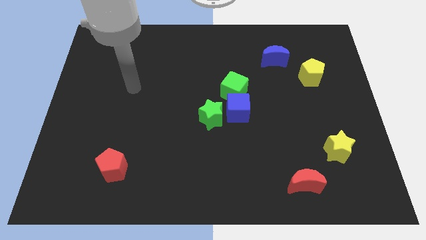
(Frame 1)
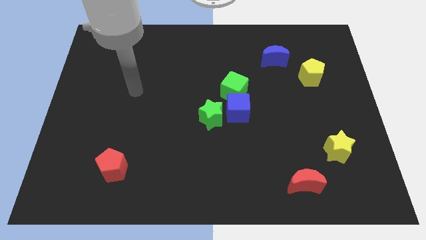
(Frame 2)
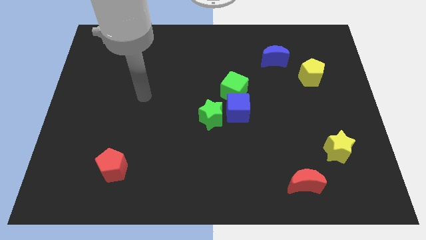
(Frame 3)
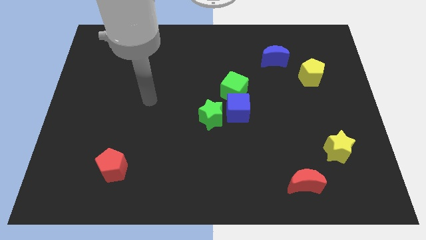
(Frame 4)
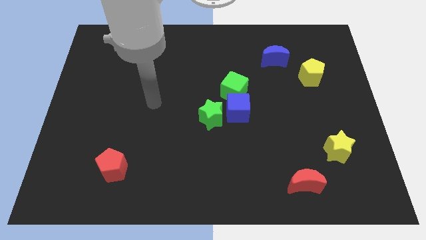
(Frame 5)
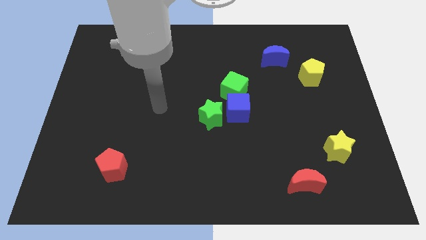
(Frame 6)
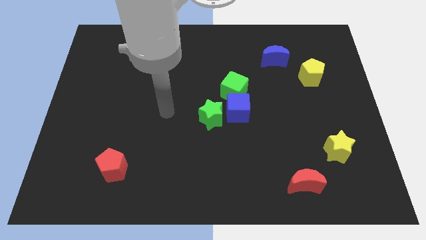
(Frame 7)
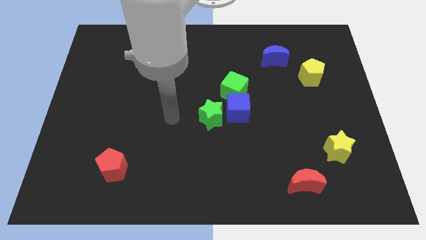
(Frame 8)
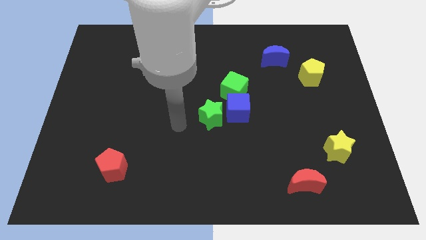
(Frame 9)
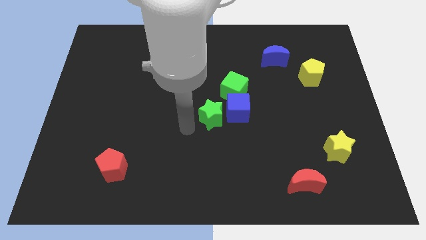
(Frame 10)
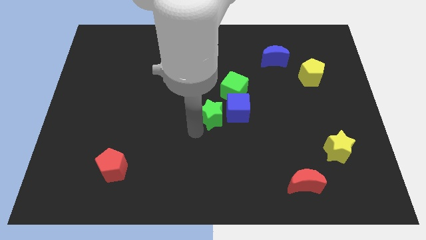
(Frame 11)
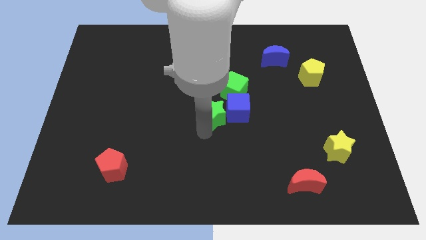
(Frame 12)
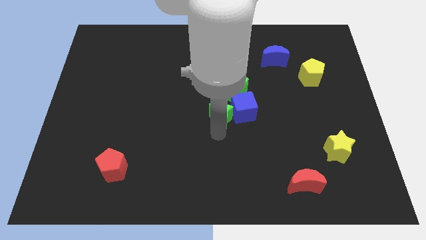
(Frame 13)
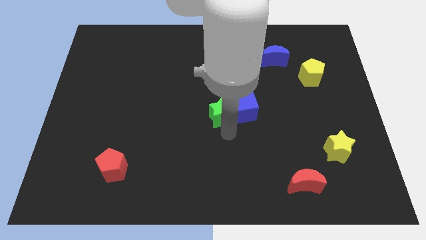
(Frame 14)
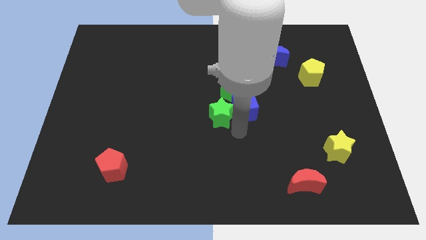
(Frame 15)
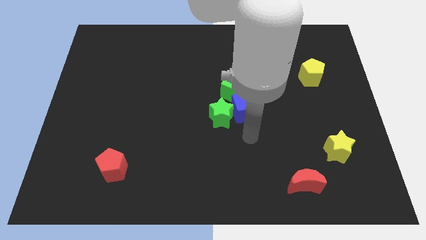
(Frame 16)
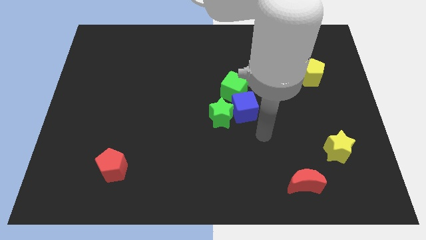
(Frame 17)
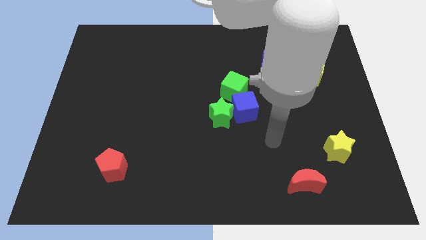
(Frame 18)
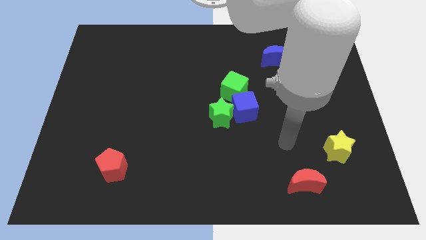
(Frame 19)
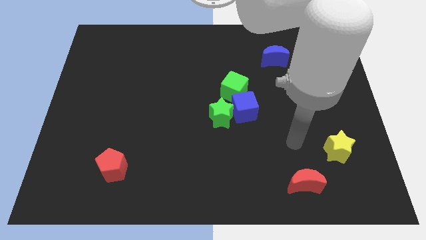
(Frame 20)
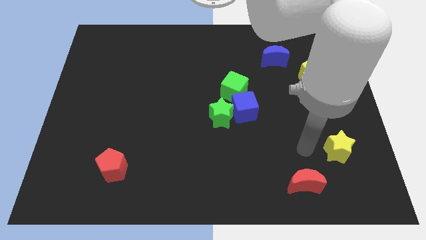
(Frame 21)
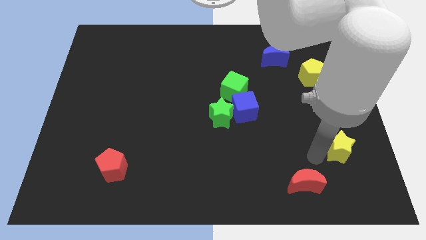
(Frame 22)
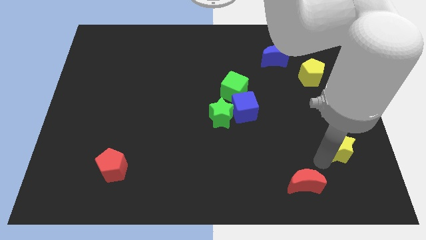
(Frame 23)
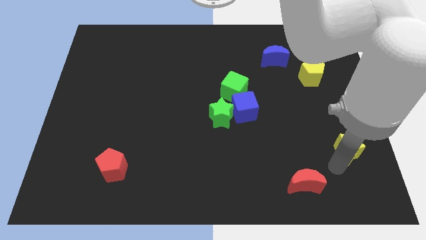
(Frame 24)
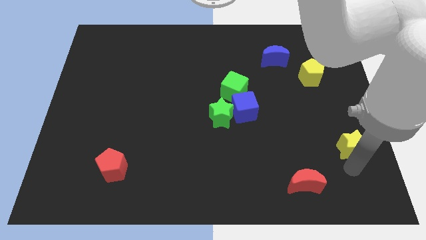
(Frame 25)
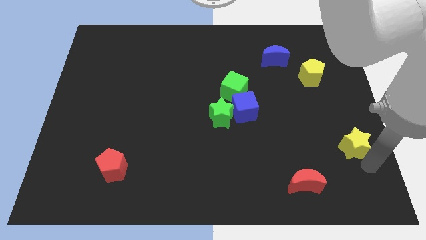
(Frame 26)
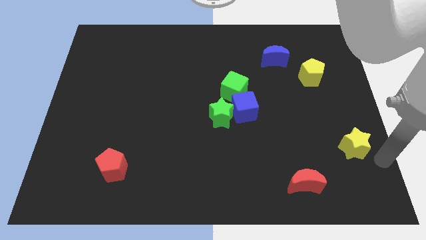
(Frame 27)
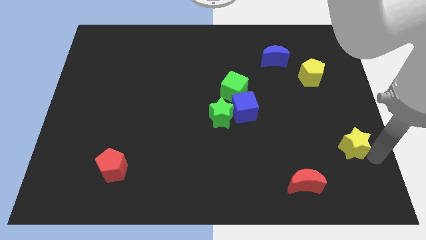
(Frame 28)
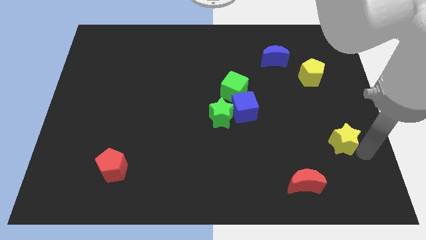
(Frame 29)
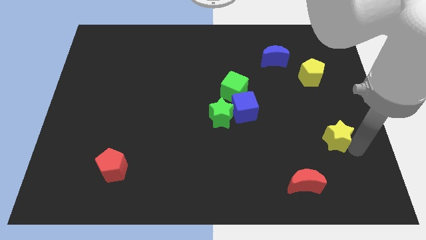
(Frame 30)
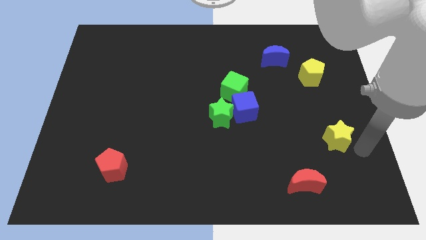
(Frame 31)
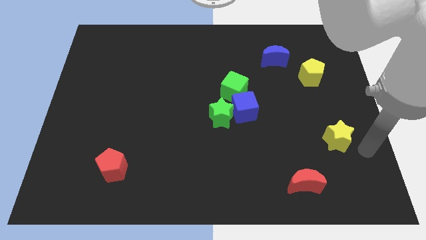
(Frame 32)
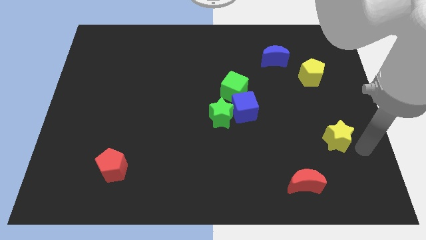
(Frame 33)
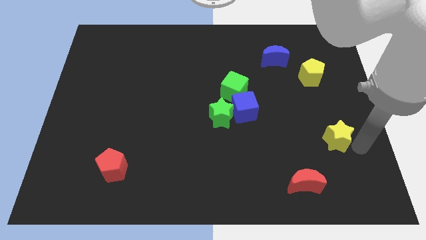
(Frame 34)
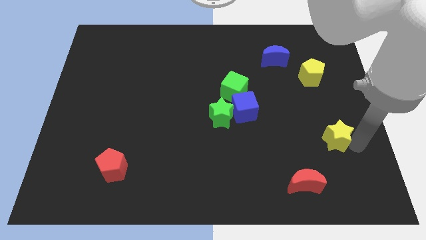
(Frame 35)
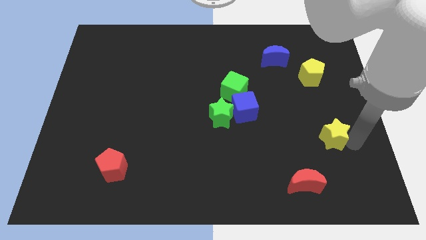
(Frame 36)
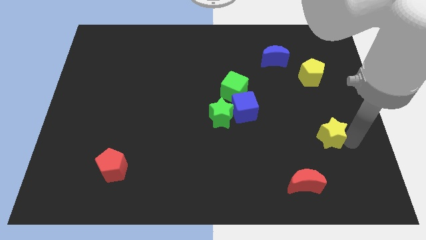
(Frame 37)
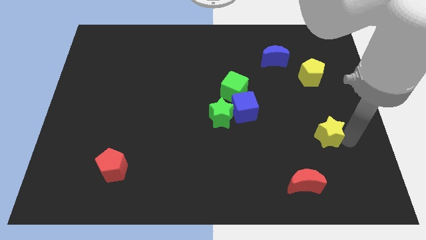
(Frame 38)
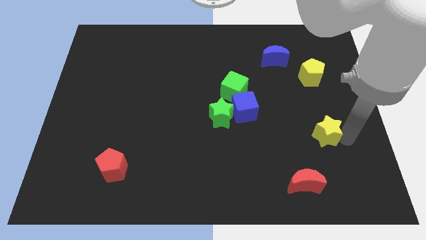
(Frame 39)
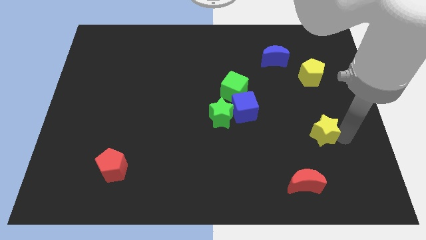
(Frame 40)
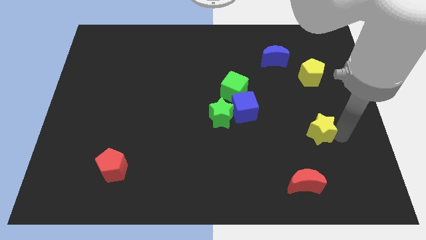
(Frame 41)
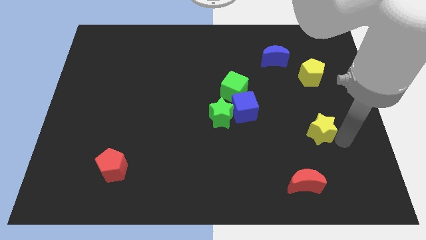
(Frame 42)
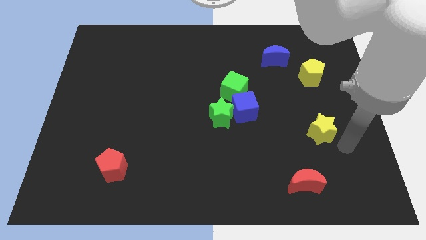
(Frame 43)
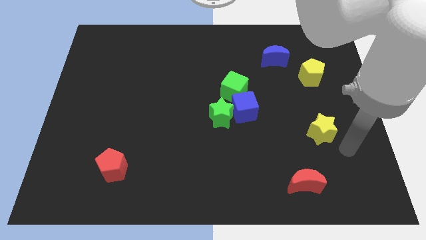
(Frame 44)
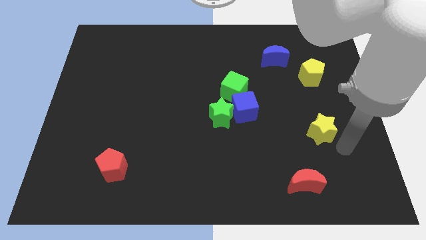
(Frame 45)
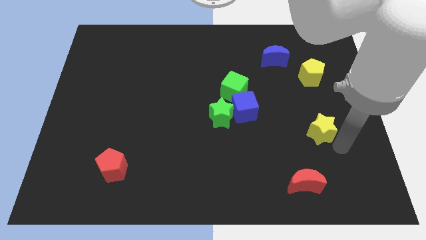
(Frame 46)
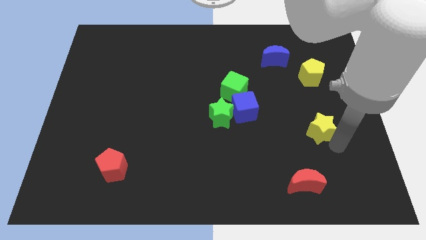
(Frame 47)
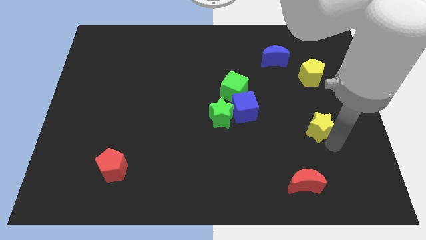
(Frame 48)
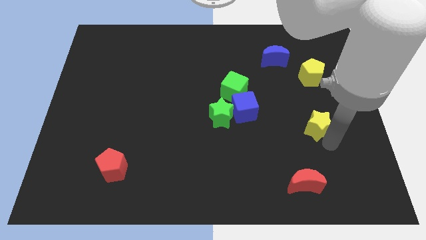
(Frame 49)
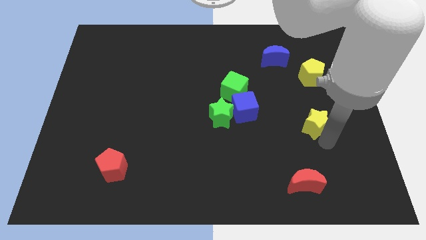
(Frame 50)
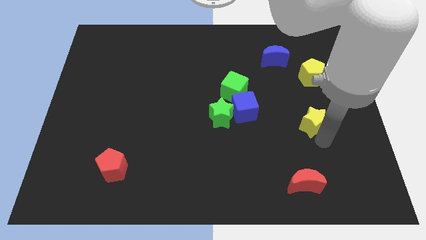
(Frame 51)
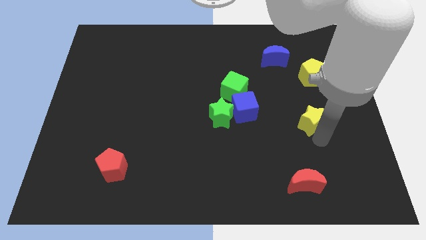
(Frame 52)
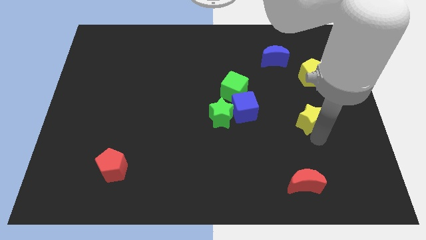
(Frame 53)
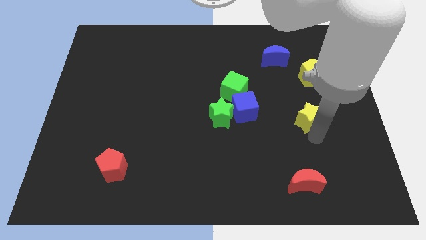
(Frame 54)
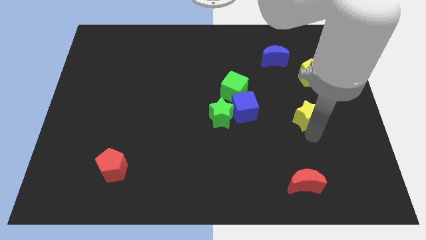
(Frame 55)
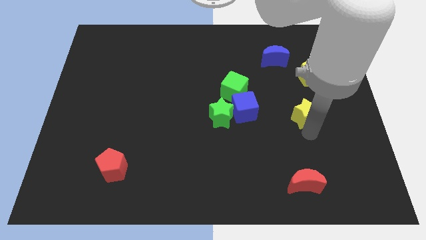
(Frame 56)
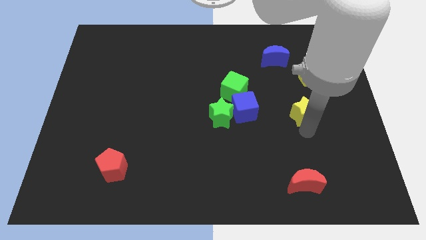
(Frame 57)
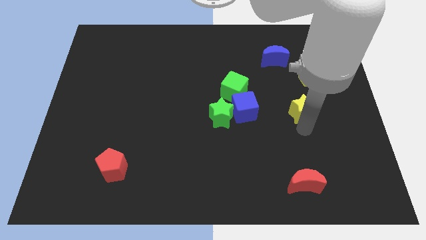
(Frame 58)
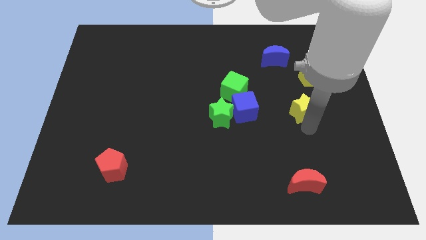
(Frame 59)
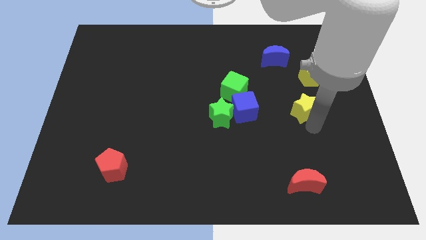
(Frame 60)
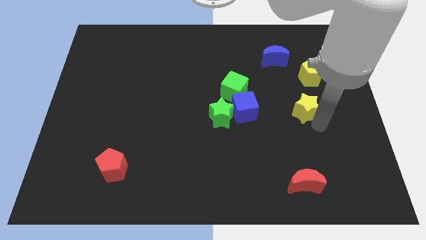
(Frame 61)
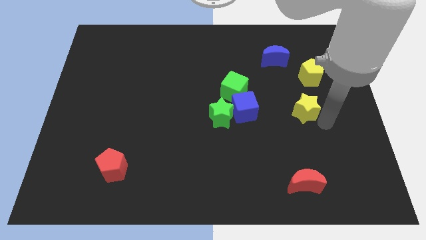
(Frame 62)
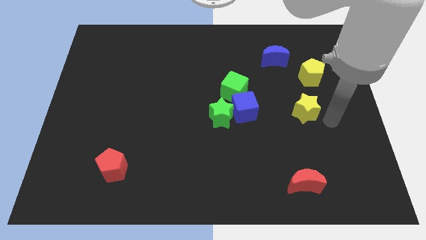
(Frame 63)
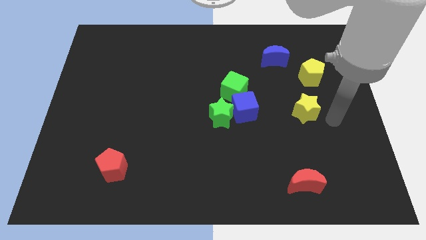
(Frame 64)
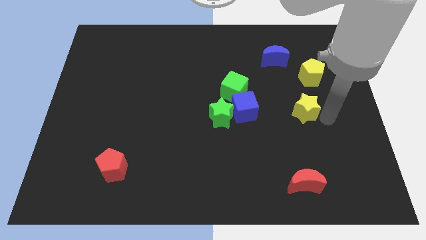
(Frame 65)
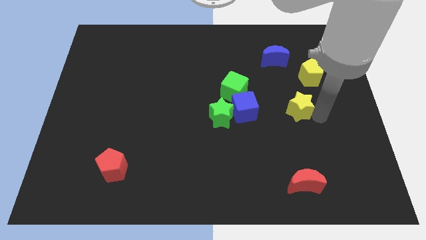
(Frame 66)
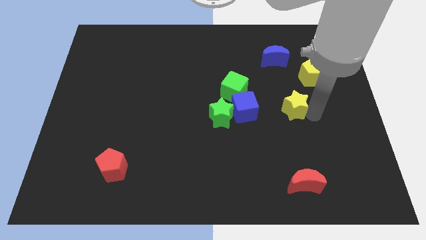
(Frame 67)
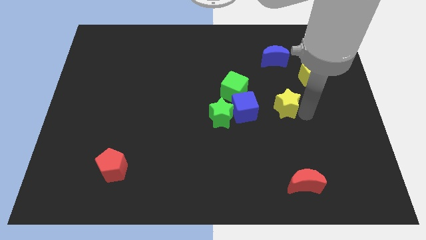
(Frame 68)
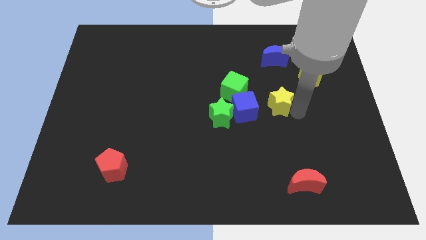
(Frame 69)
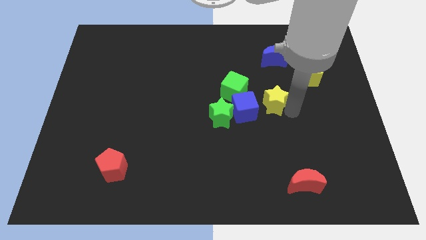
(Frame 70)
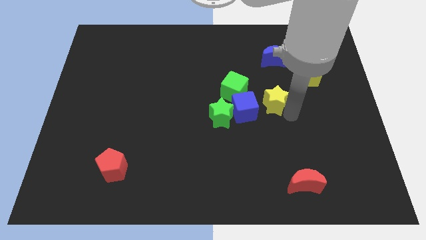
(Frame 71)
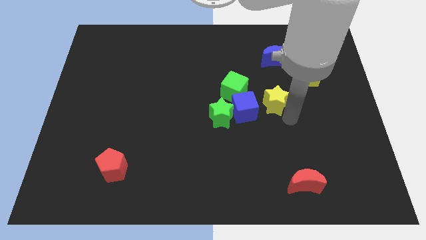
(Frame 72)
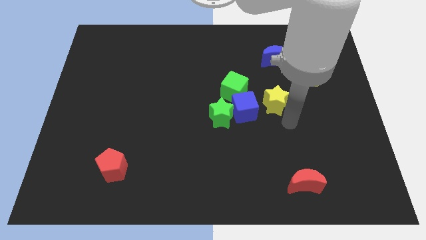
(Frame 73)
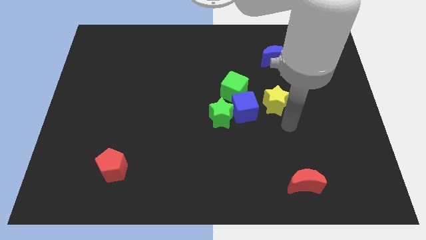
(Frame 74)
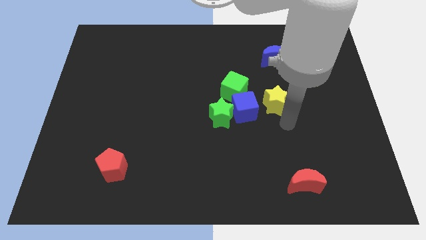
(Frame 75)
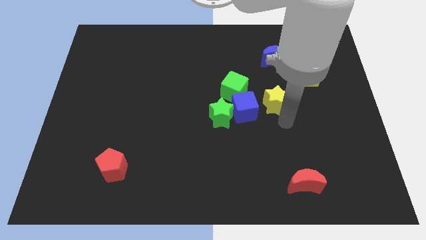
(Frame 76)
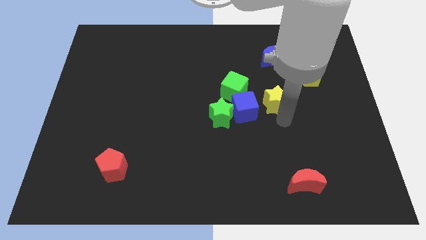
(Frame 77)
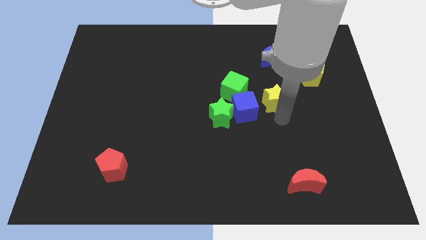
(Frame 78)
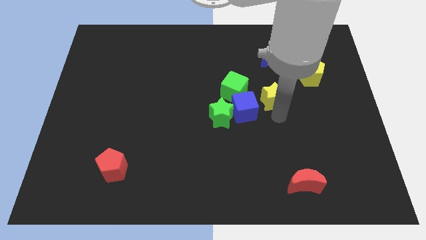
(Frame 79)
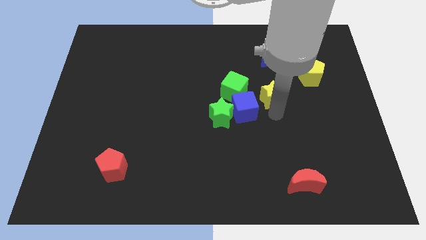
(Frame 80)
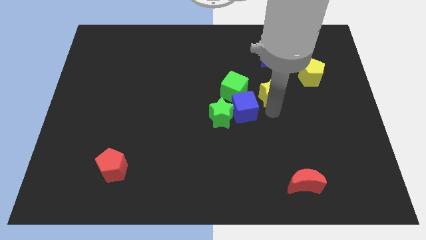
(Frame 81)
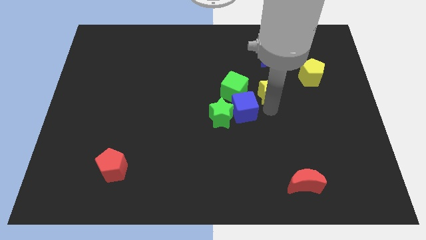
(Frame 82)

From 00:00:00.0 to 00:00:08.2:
push the yellow star upwards and to the left diagonally
